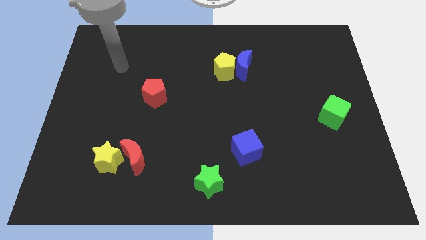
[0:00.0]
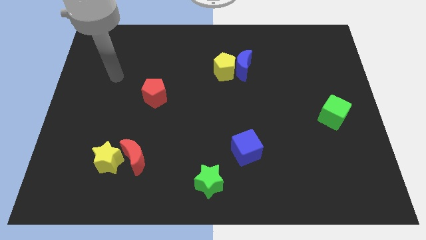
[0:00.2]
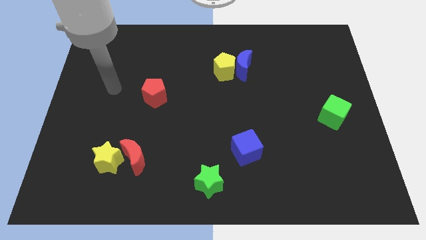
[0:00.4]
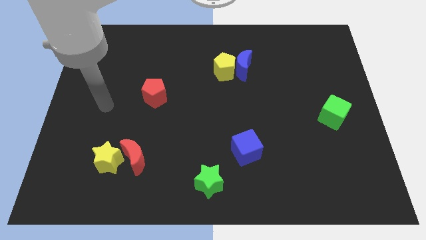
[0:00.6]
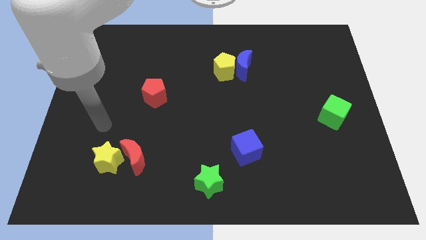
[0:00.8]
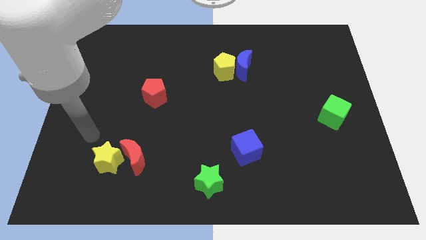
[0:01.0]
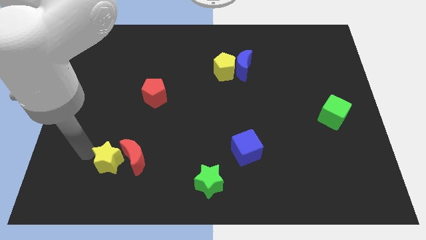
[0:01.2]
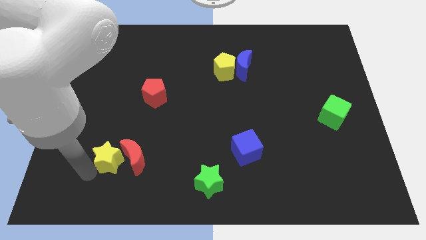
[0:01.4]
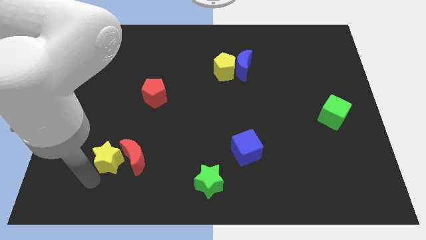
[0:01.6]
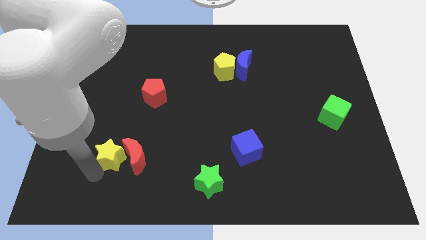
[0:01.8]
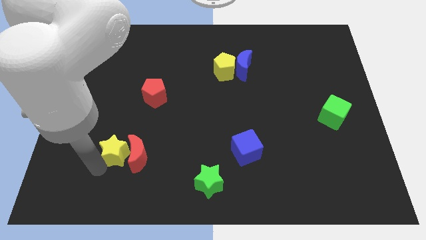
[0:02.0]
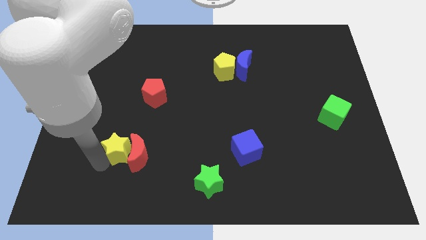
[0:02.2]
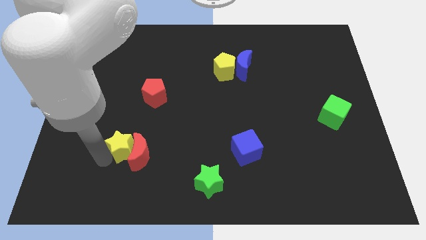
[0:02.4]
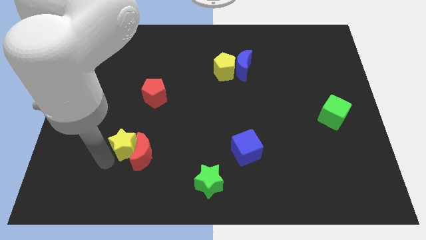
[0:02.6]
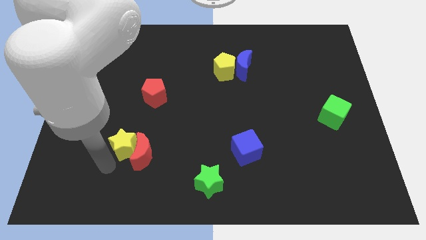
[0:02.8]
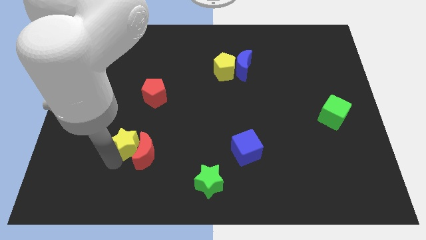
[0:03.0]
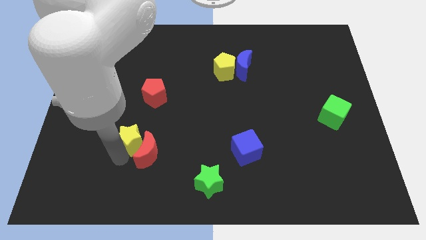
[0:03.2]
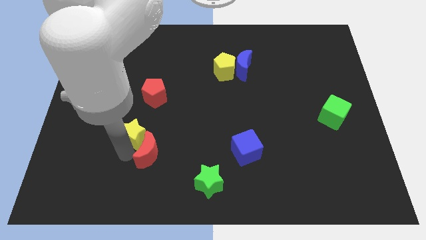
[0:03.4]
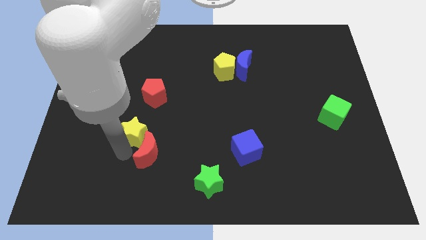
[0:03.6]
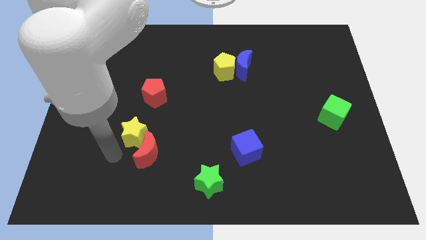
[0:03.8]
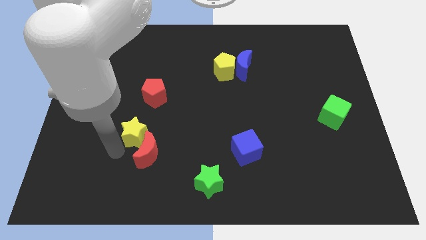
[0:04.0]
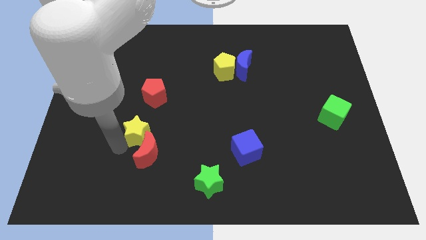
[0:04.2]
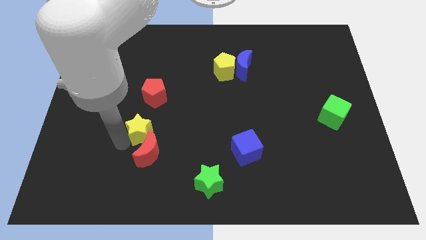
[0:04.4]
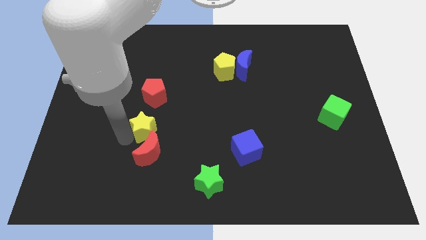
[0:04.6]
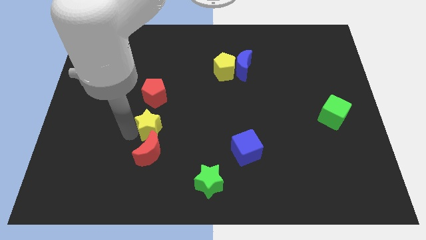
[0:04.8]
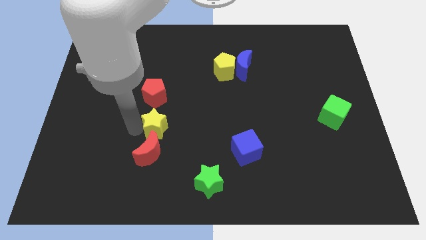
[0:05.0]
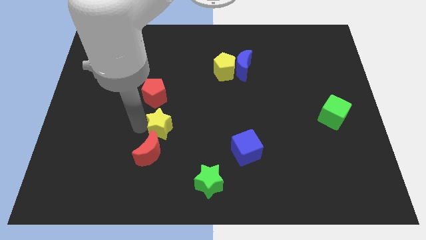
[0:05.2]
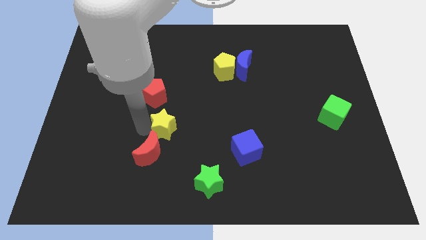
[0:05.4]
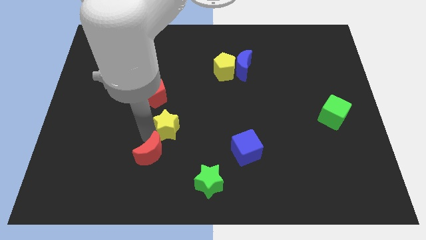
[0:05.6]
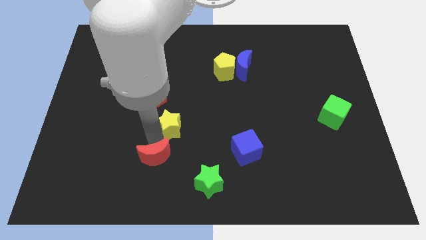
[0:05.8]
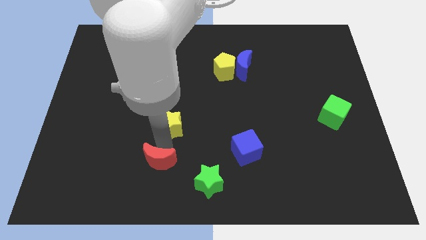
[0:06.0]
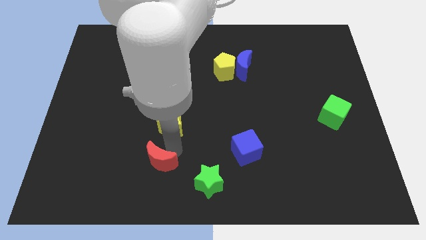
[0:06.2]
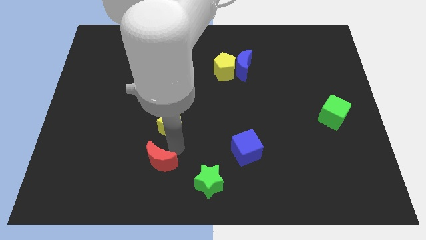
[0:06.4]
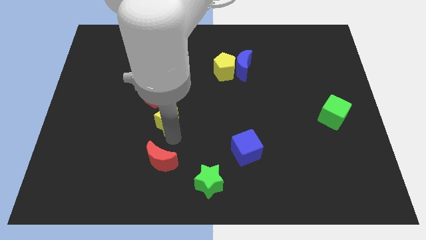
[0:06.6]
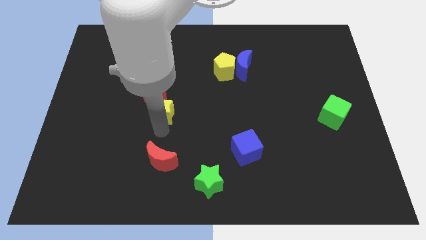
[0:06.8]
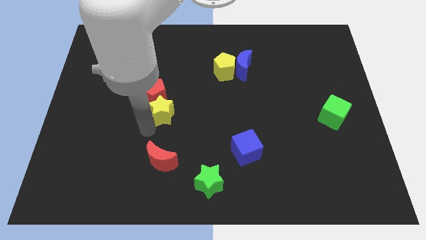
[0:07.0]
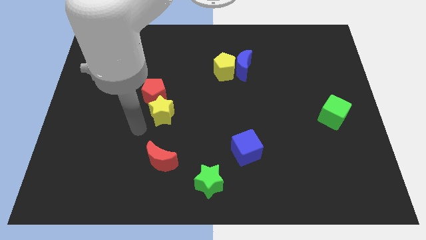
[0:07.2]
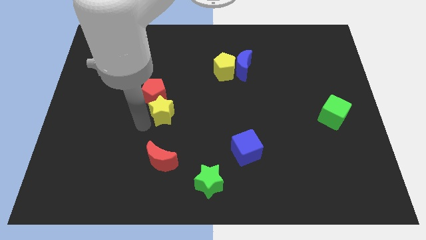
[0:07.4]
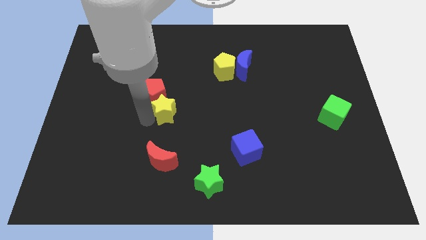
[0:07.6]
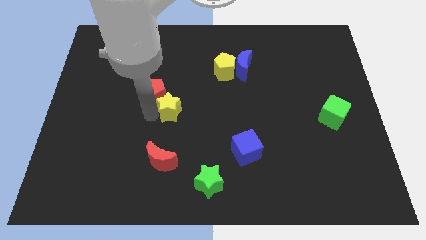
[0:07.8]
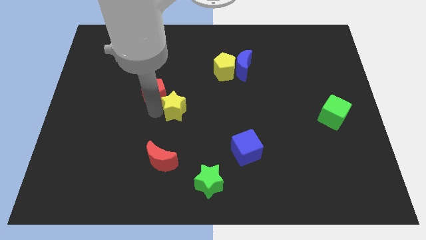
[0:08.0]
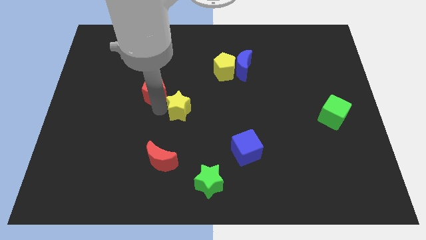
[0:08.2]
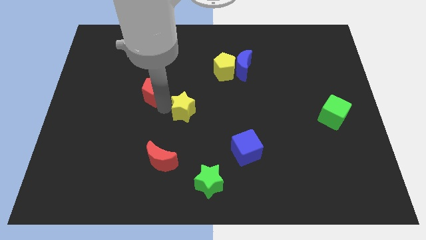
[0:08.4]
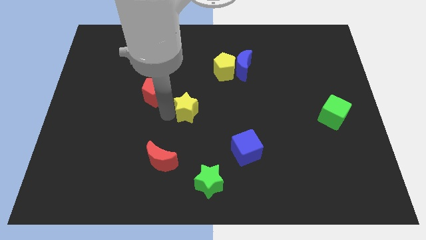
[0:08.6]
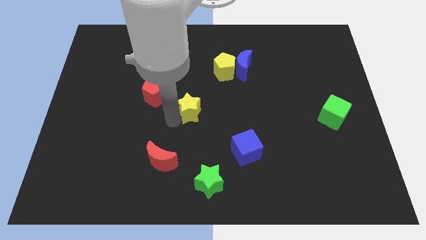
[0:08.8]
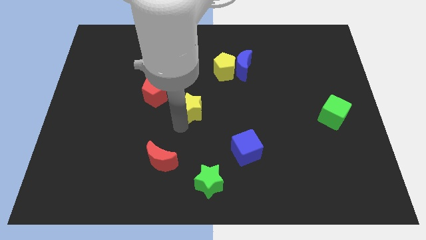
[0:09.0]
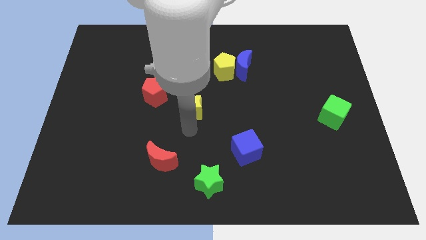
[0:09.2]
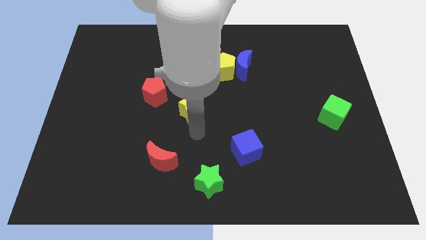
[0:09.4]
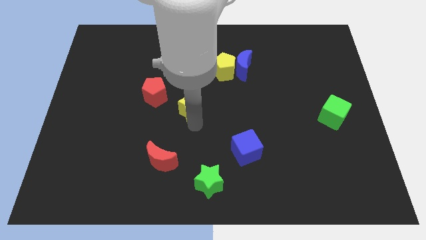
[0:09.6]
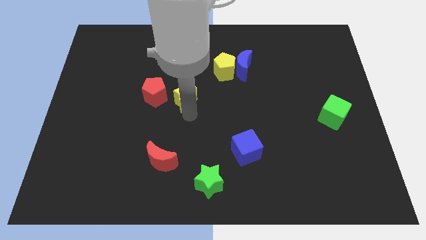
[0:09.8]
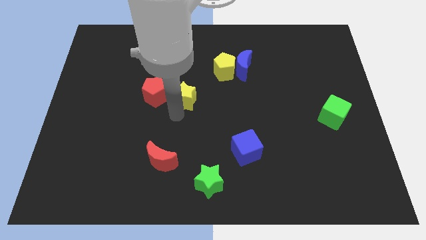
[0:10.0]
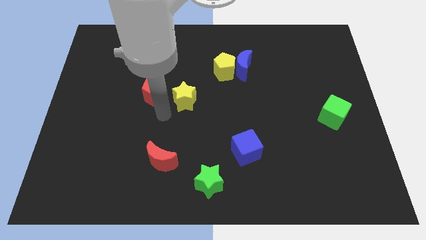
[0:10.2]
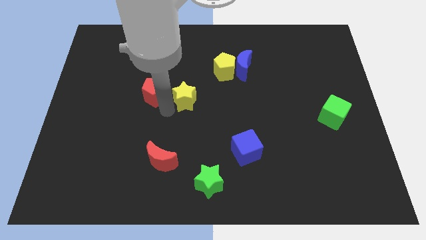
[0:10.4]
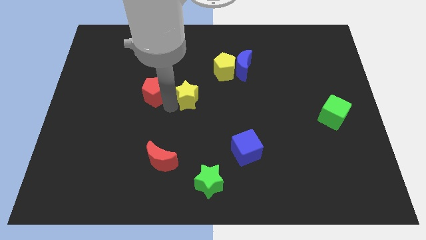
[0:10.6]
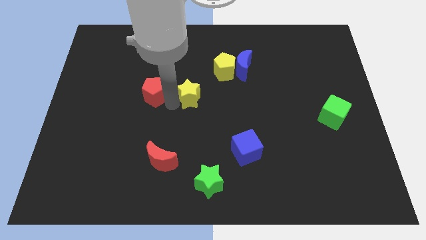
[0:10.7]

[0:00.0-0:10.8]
move the yellow star to the bottom left of the yellow pentagon
